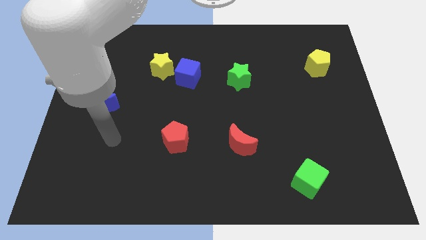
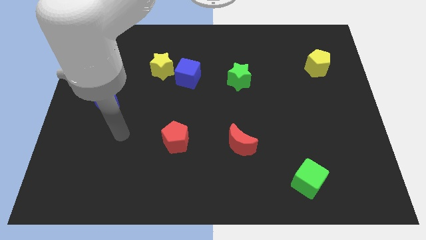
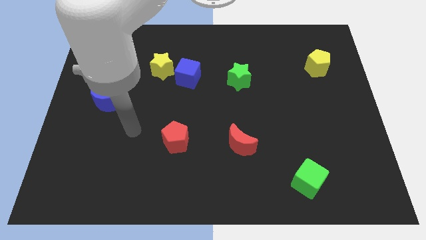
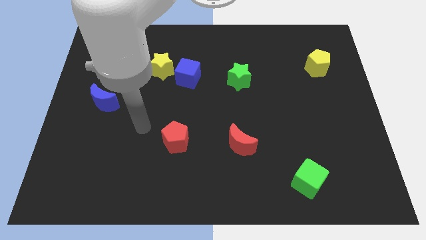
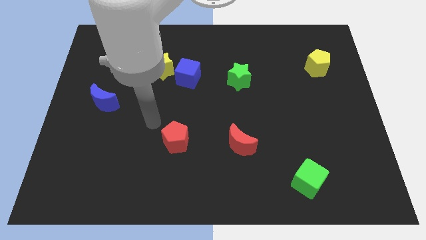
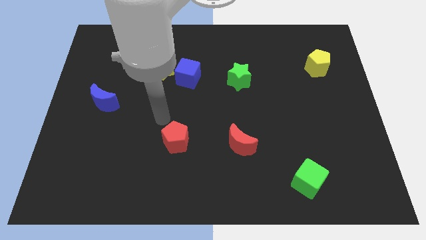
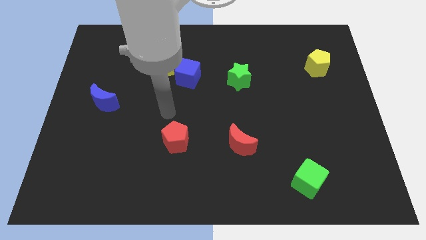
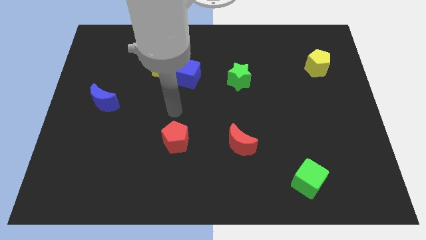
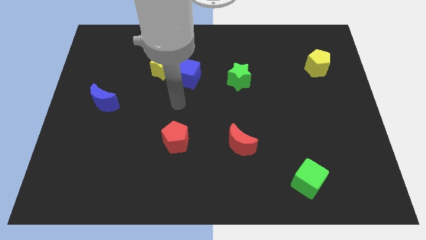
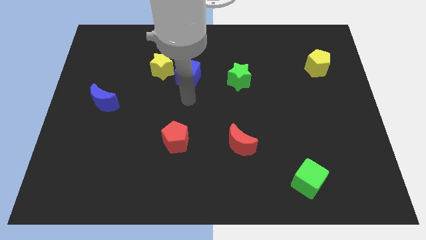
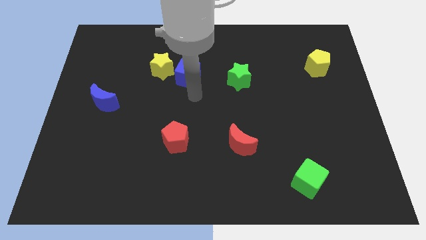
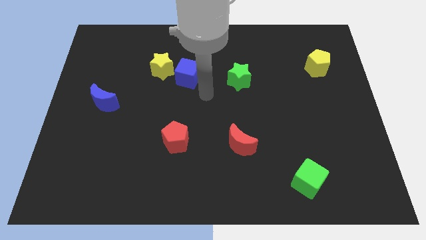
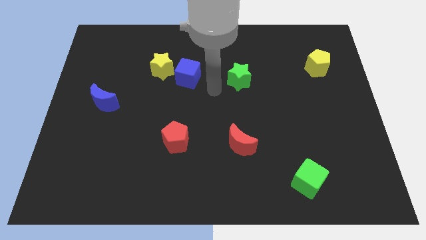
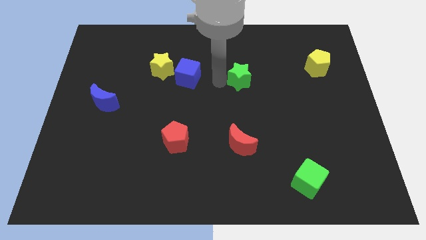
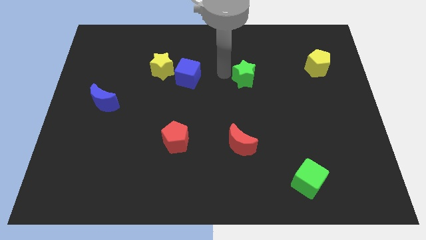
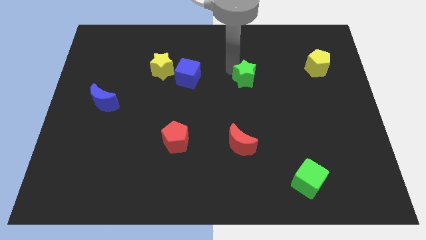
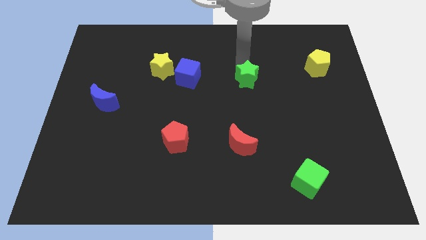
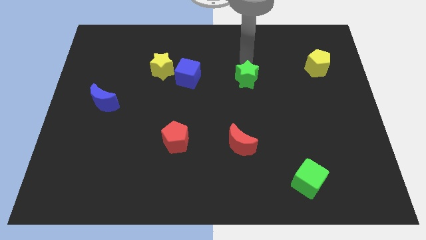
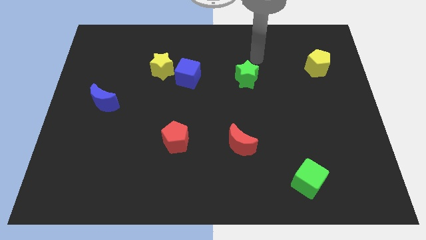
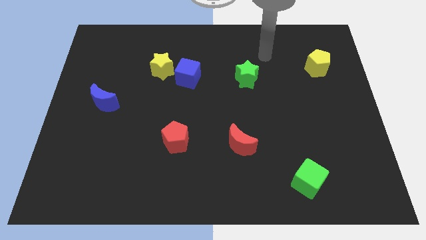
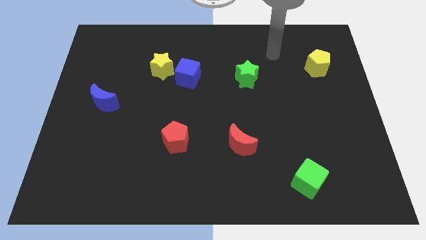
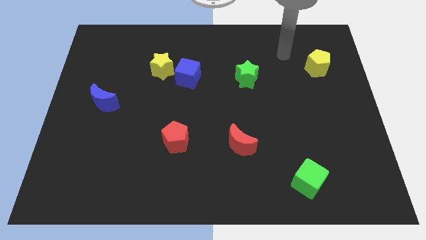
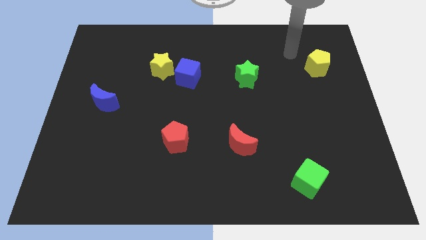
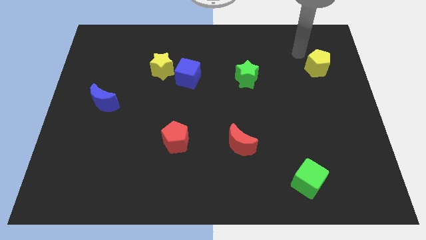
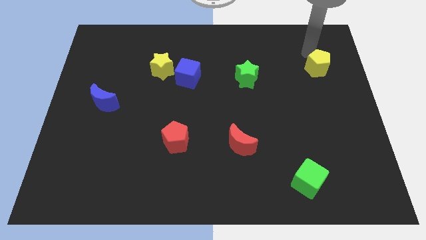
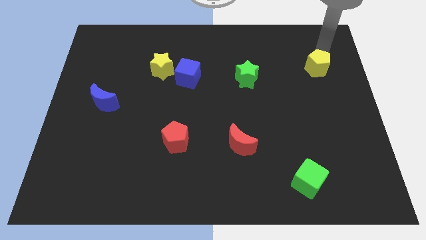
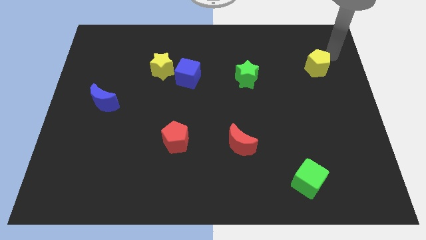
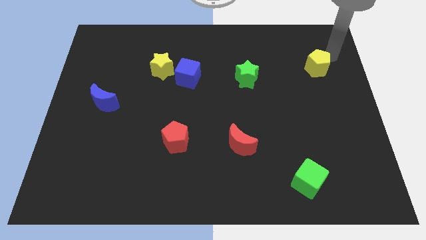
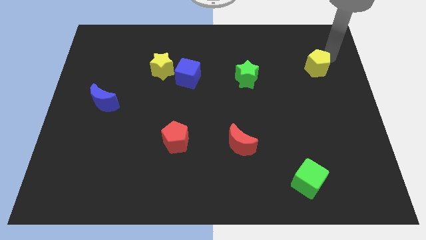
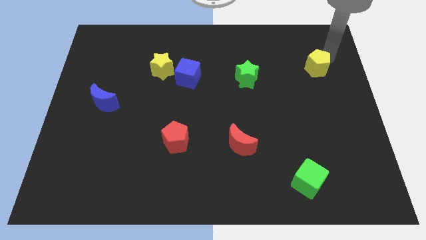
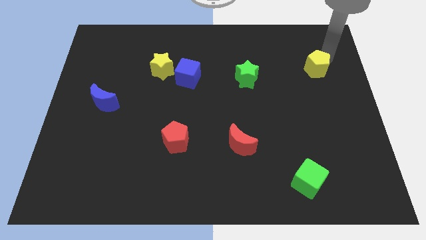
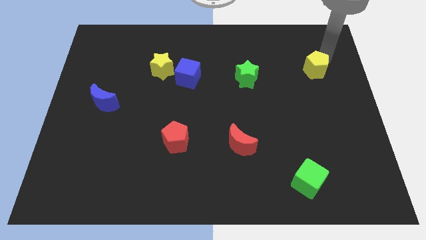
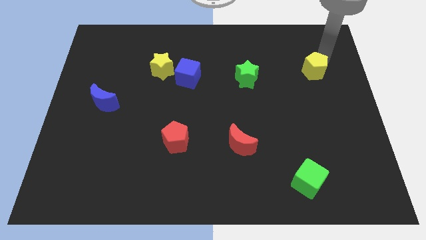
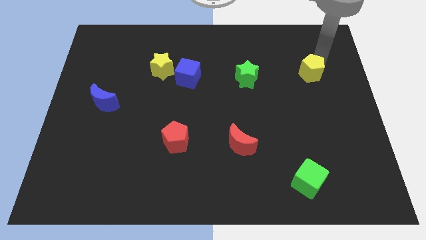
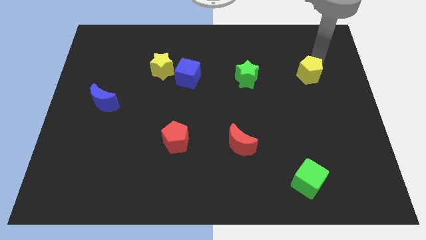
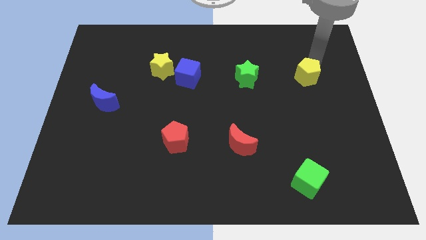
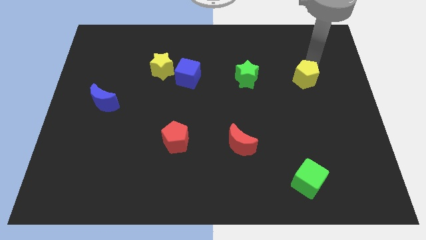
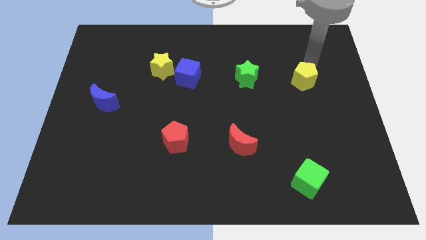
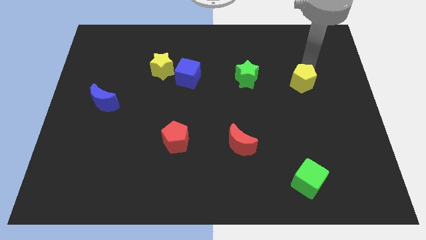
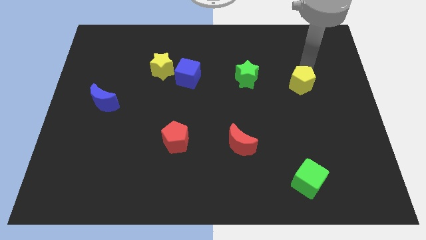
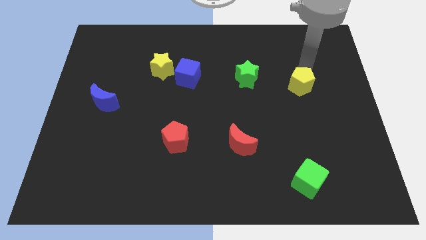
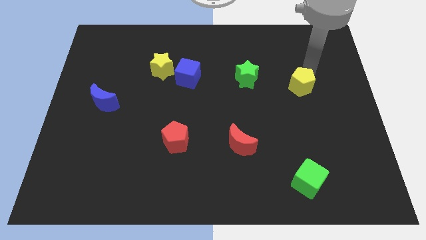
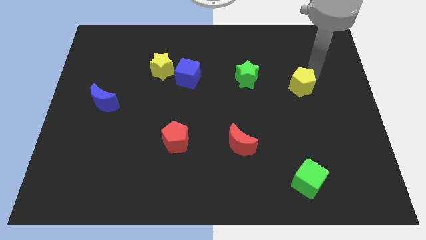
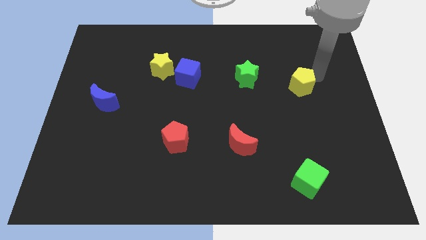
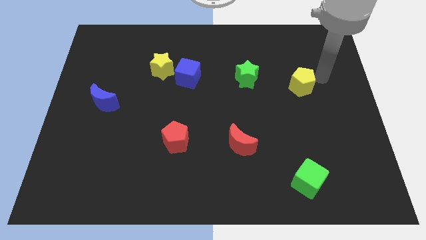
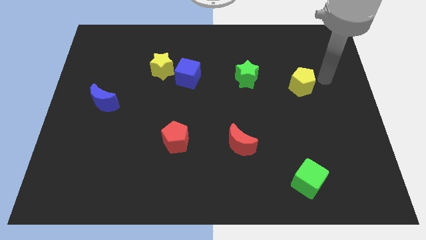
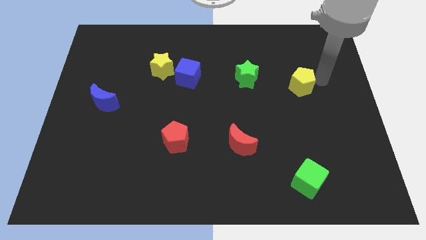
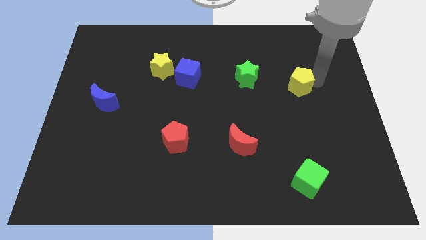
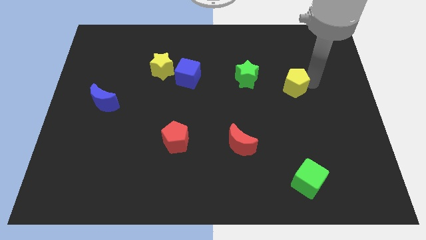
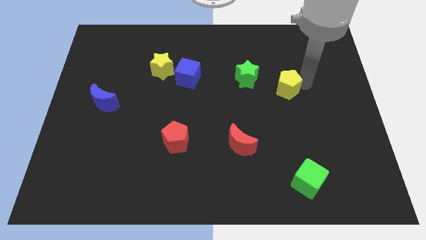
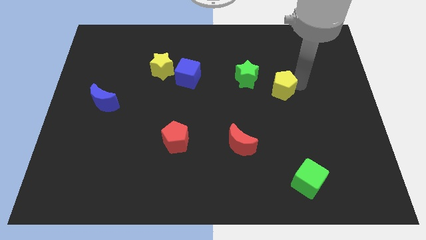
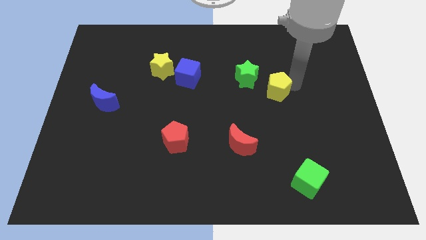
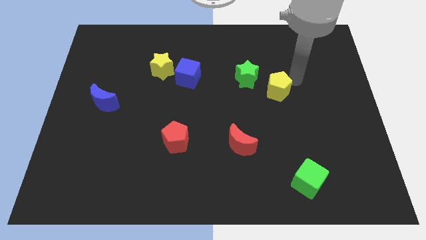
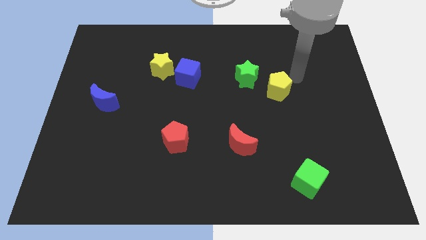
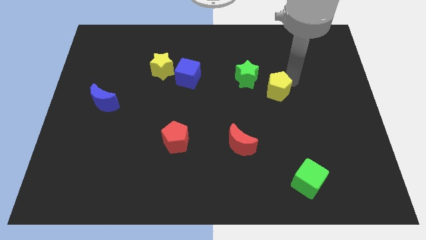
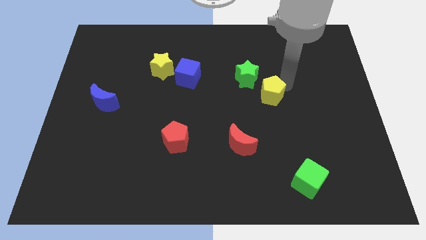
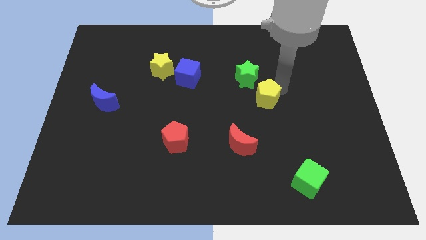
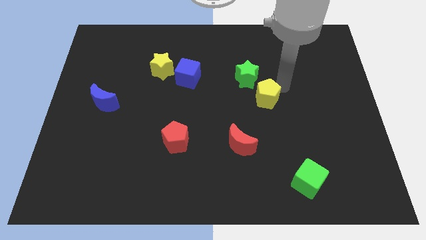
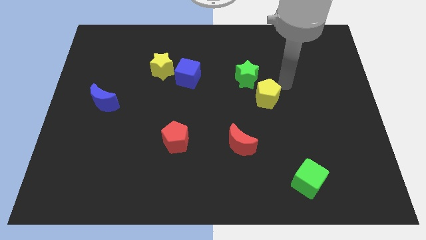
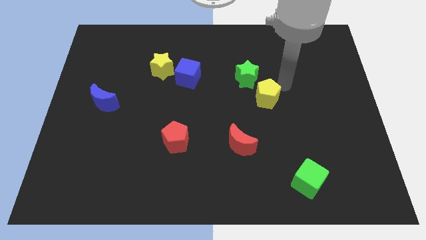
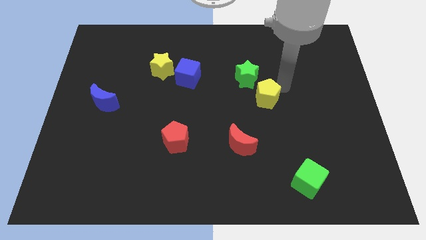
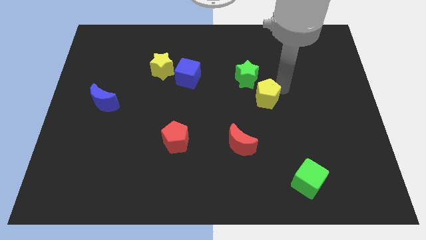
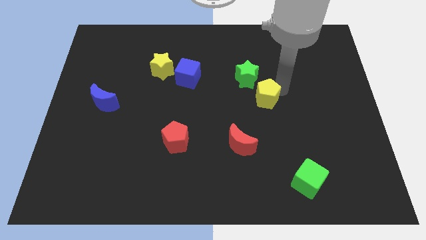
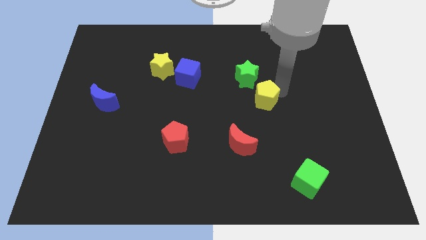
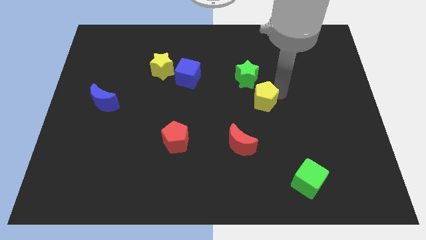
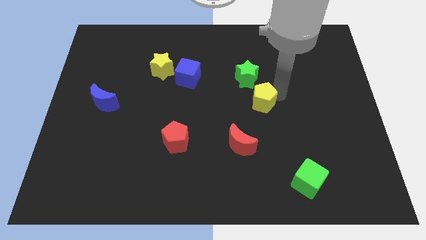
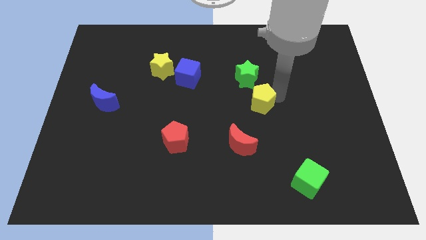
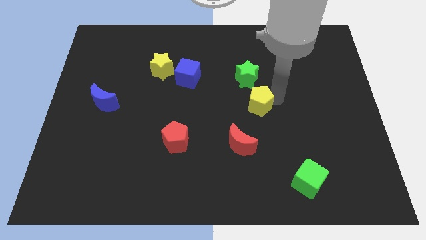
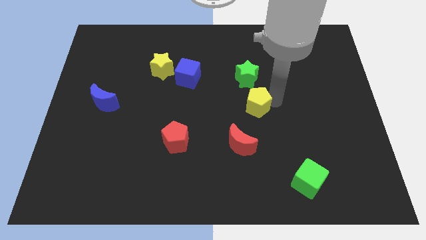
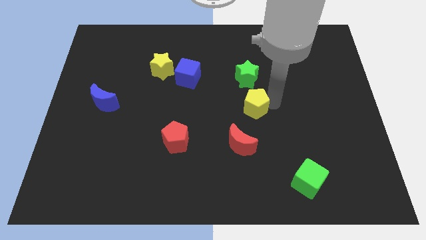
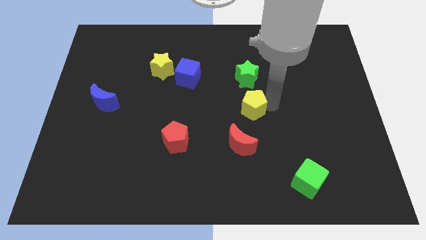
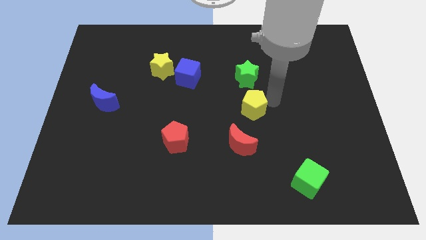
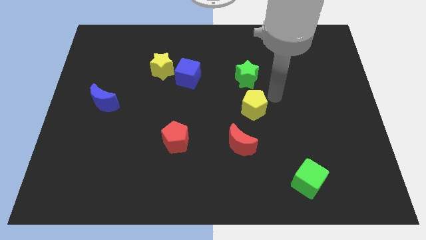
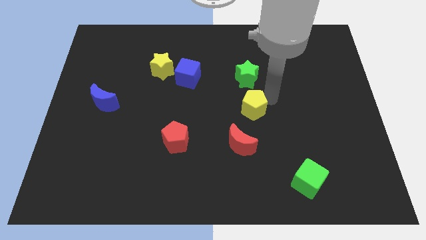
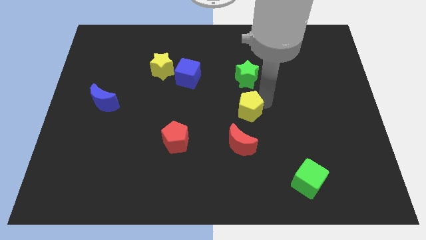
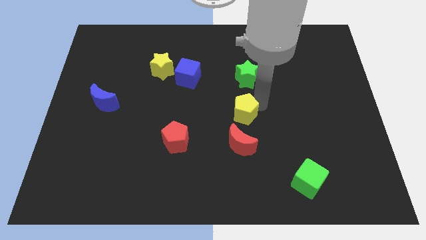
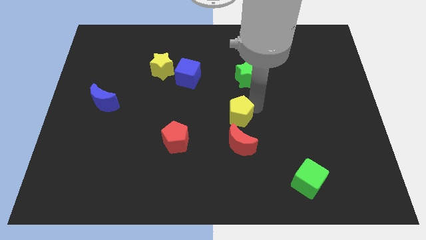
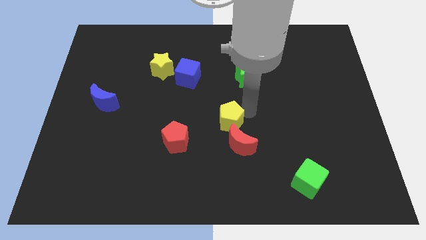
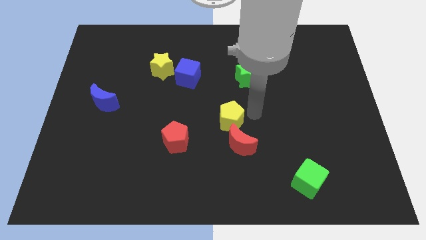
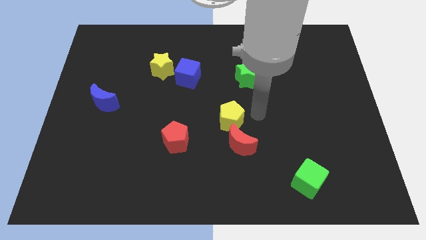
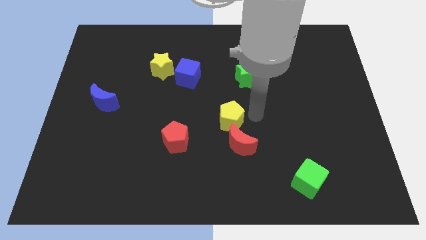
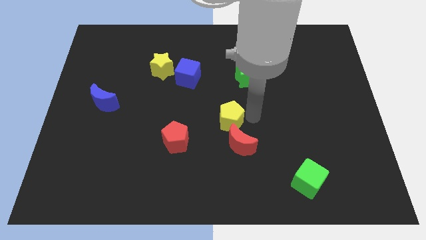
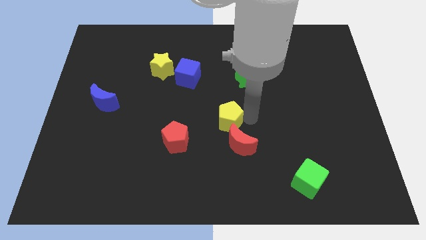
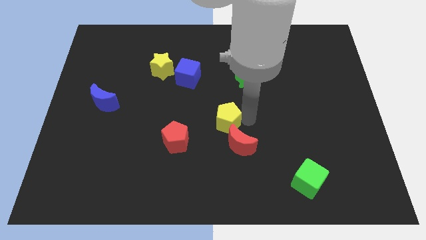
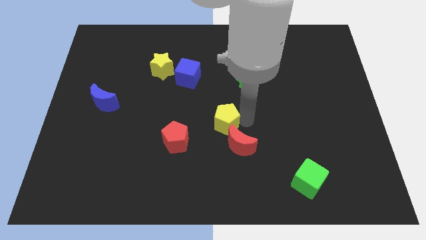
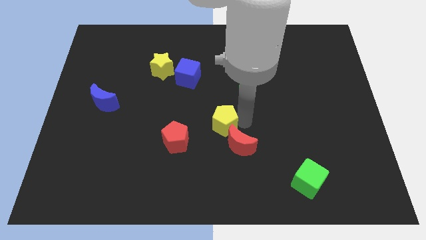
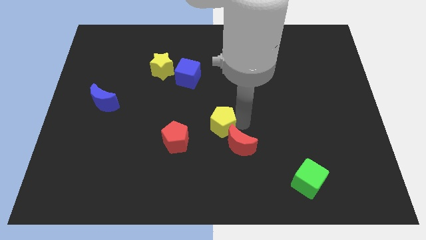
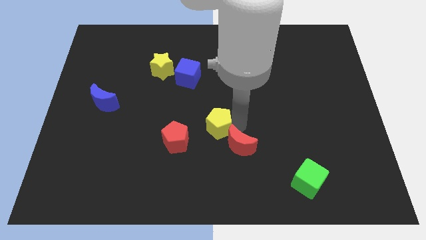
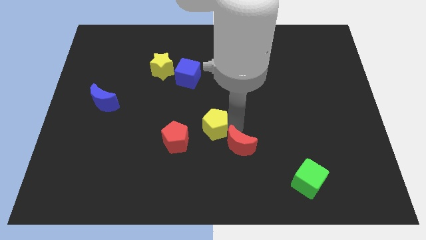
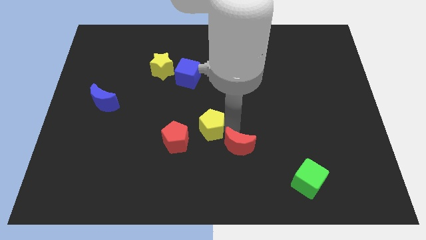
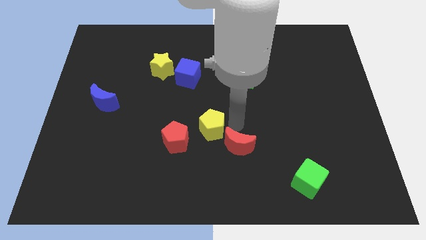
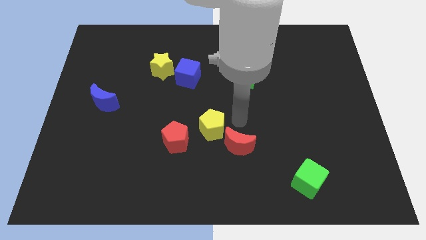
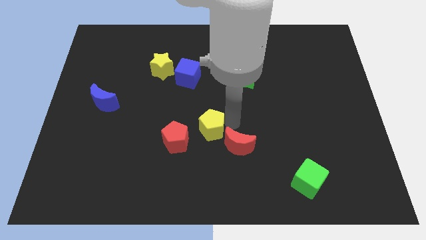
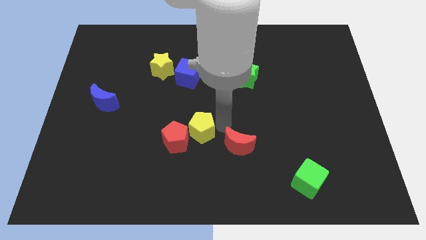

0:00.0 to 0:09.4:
put the yellow pentagon to the red pentagon
